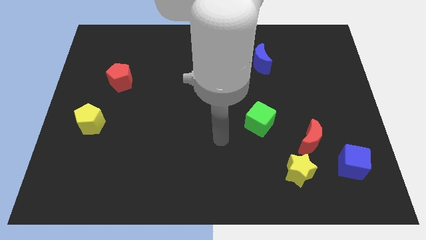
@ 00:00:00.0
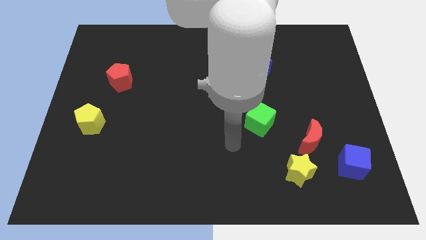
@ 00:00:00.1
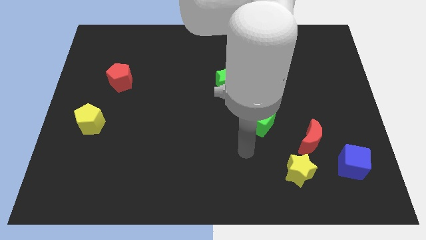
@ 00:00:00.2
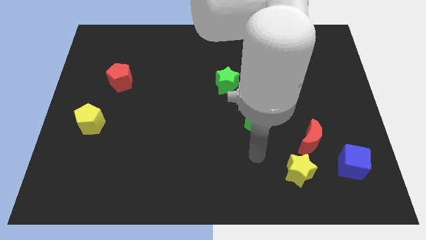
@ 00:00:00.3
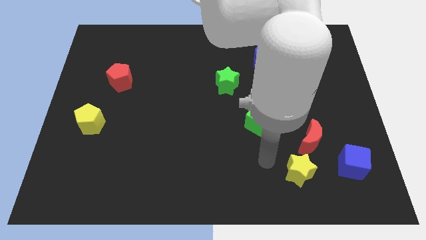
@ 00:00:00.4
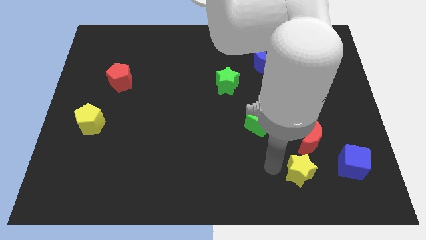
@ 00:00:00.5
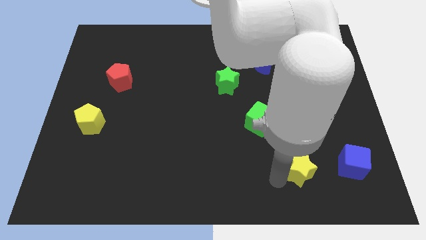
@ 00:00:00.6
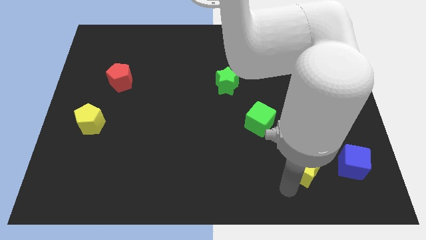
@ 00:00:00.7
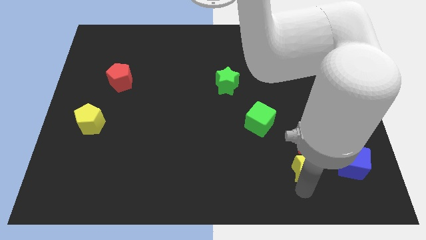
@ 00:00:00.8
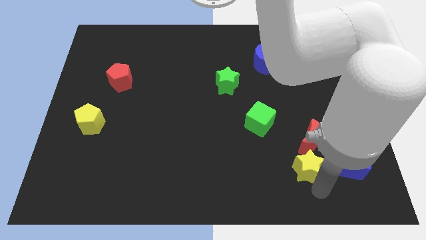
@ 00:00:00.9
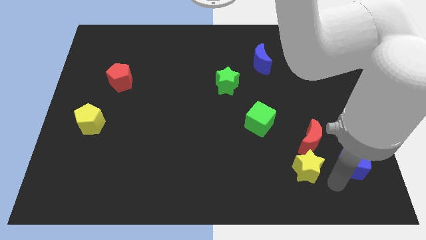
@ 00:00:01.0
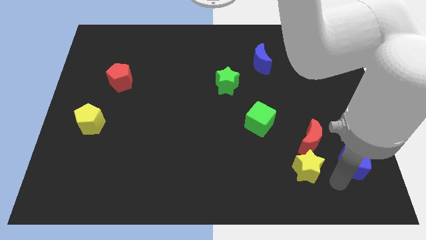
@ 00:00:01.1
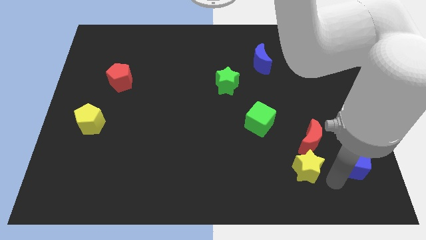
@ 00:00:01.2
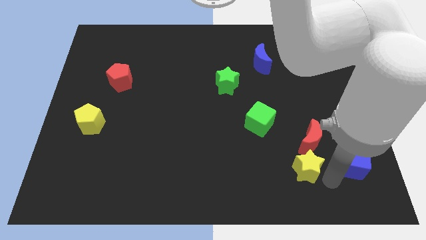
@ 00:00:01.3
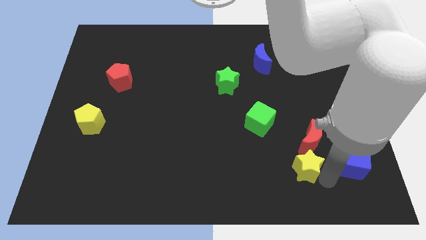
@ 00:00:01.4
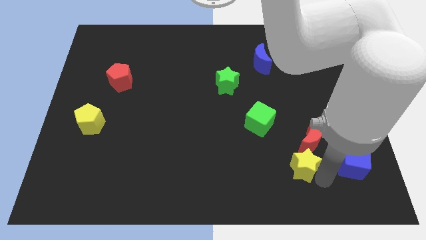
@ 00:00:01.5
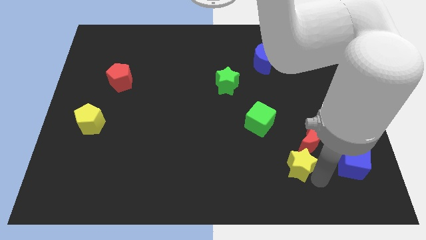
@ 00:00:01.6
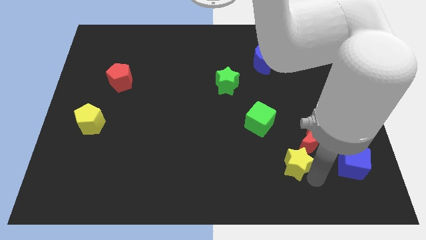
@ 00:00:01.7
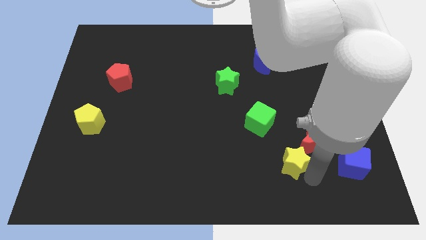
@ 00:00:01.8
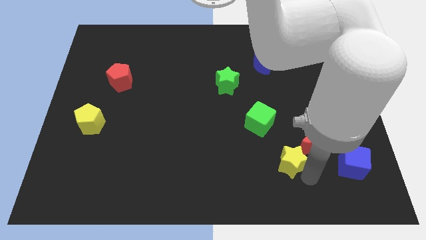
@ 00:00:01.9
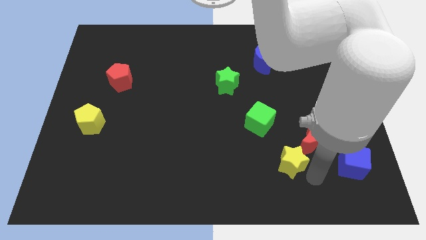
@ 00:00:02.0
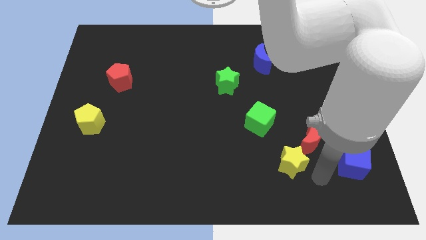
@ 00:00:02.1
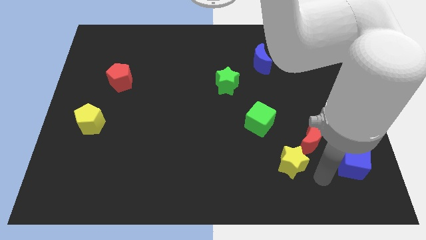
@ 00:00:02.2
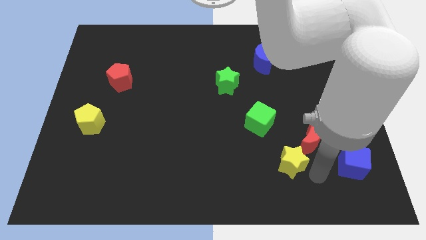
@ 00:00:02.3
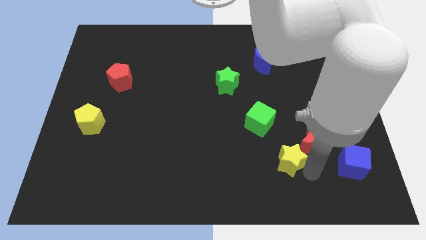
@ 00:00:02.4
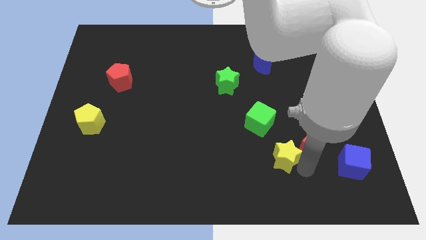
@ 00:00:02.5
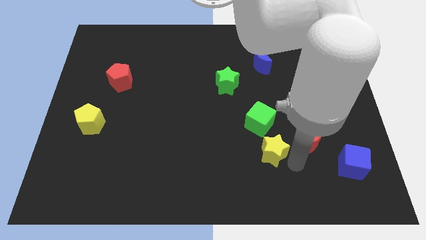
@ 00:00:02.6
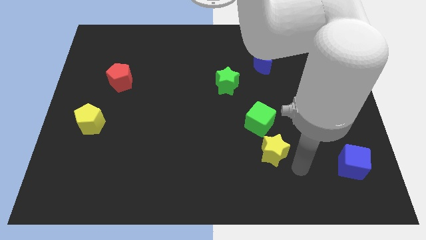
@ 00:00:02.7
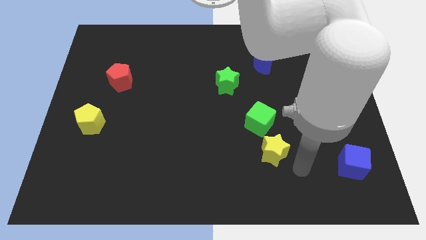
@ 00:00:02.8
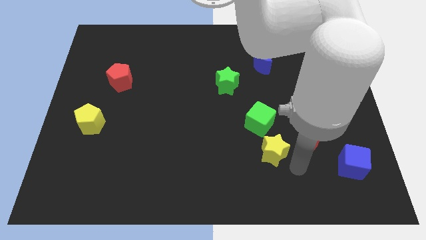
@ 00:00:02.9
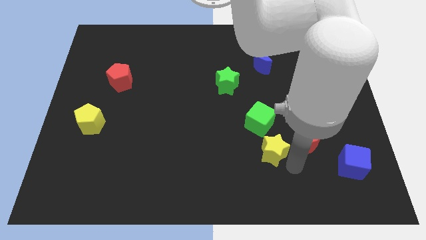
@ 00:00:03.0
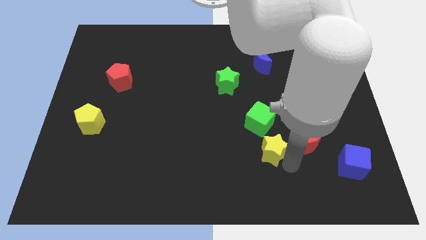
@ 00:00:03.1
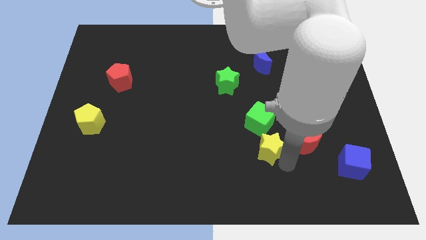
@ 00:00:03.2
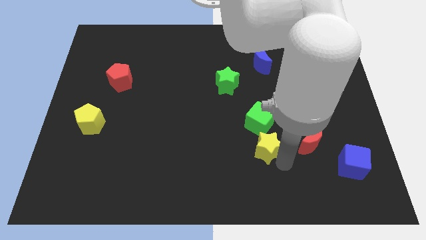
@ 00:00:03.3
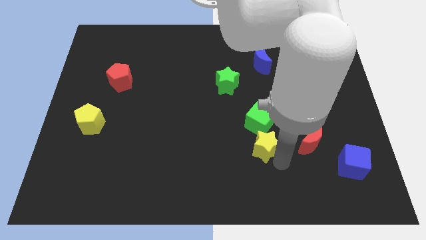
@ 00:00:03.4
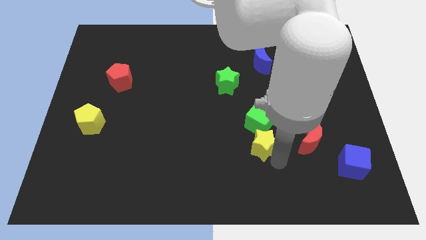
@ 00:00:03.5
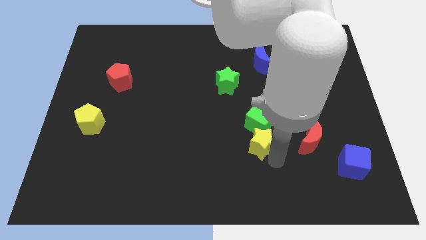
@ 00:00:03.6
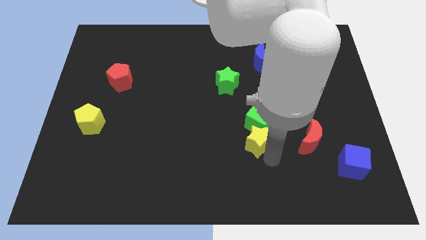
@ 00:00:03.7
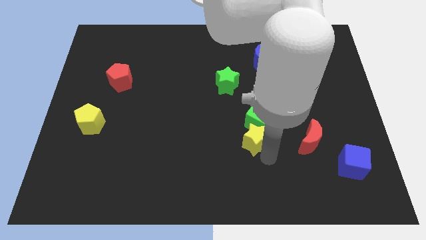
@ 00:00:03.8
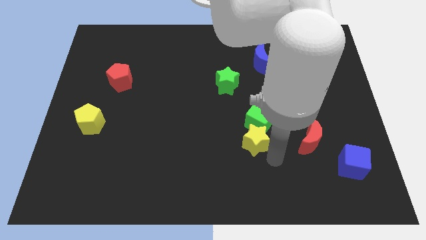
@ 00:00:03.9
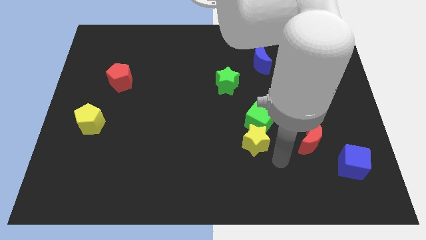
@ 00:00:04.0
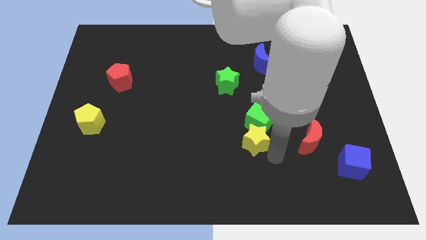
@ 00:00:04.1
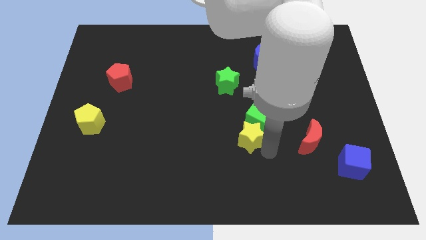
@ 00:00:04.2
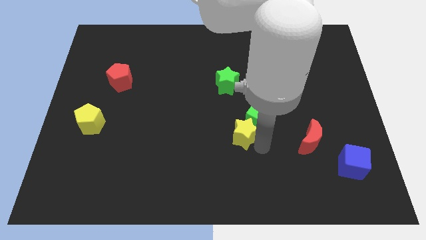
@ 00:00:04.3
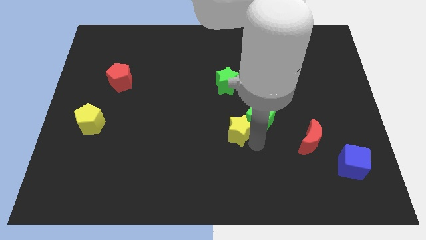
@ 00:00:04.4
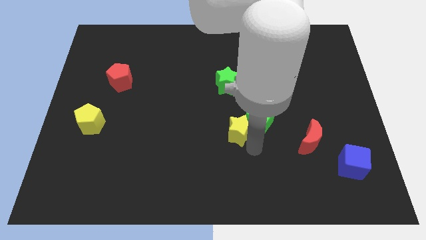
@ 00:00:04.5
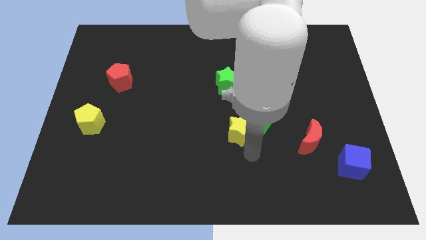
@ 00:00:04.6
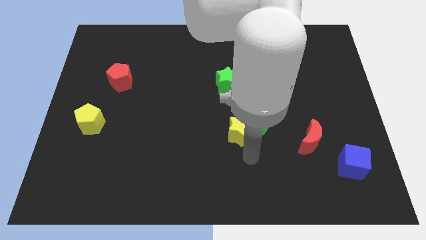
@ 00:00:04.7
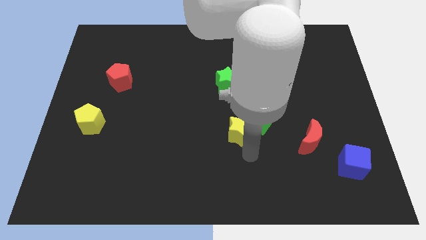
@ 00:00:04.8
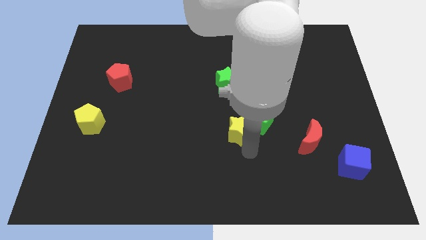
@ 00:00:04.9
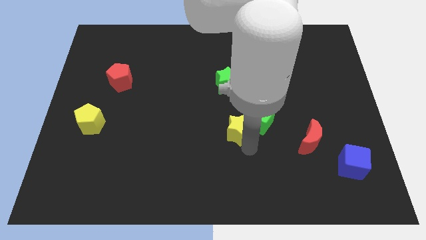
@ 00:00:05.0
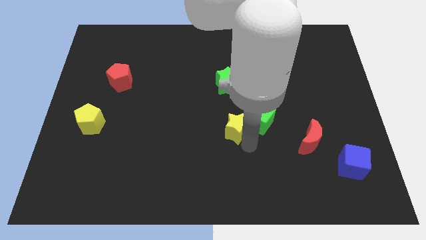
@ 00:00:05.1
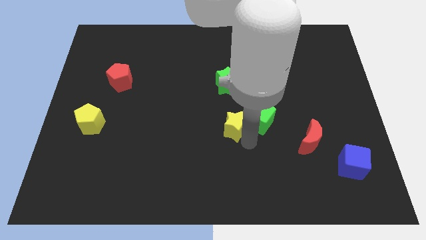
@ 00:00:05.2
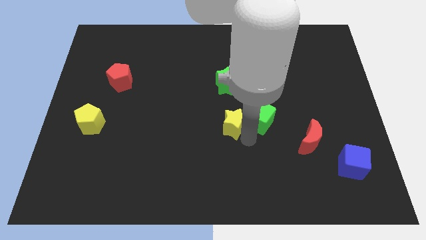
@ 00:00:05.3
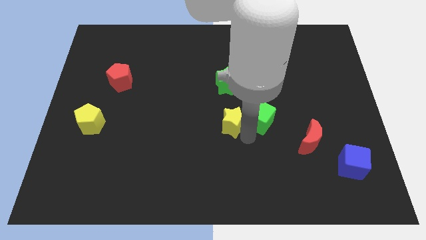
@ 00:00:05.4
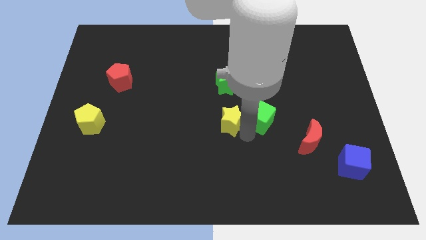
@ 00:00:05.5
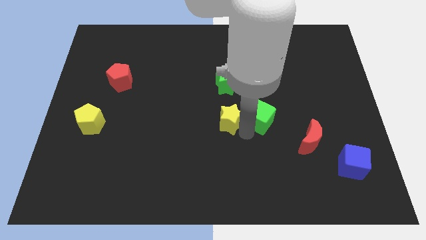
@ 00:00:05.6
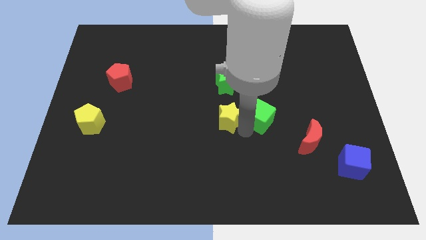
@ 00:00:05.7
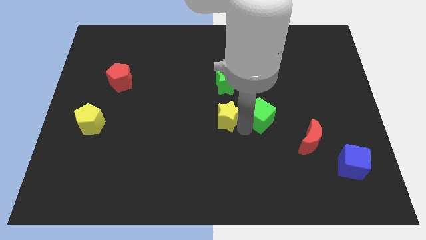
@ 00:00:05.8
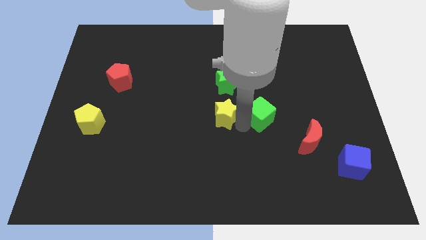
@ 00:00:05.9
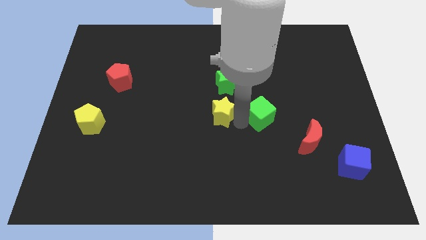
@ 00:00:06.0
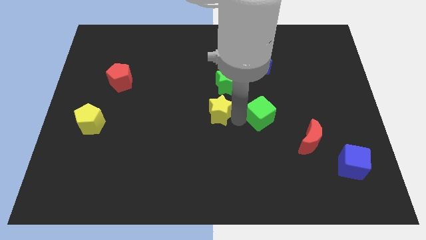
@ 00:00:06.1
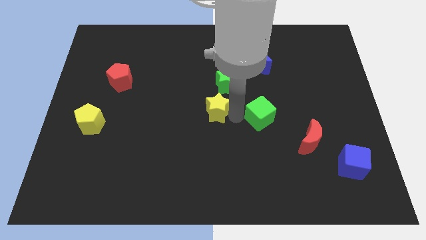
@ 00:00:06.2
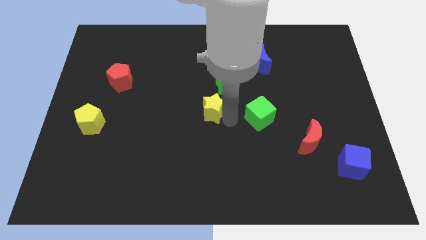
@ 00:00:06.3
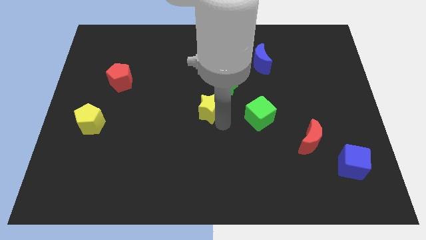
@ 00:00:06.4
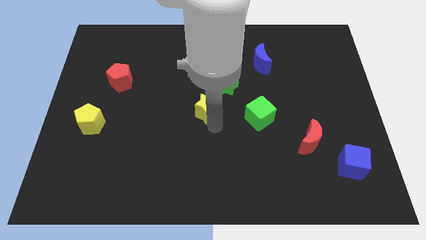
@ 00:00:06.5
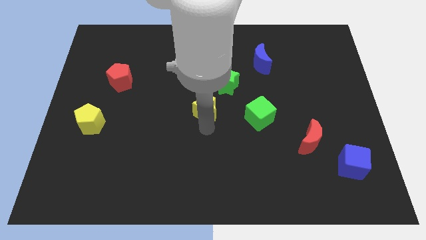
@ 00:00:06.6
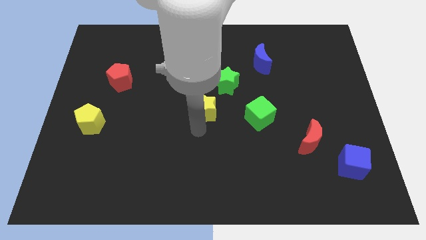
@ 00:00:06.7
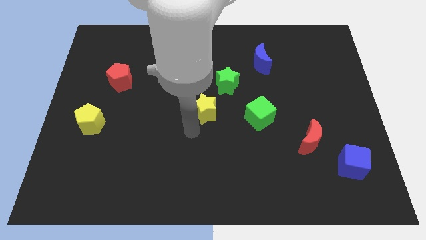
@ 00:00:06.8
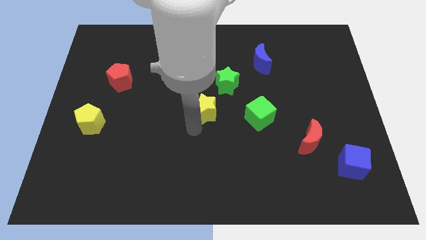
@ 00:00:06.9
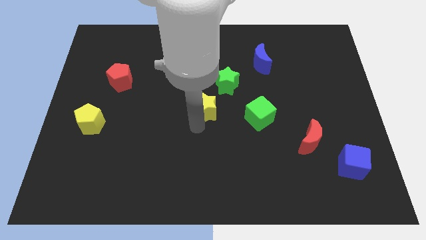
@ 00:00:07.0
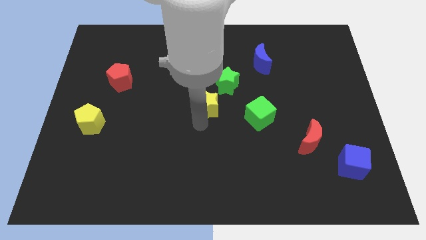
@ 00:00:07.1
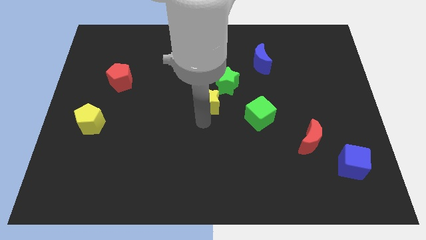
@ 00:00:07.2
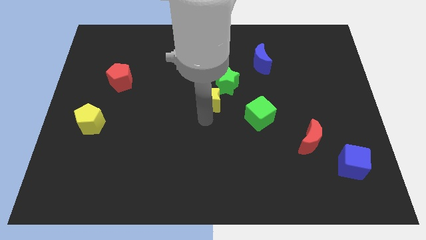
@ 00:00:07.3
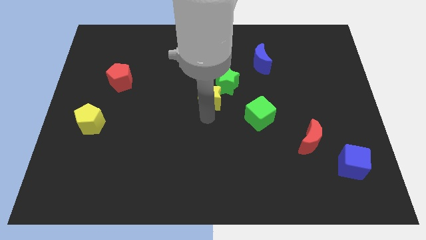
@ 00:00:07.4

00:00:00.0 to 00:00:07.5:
slide the yellow star close to the green star
